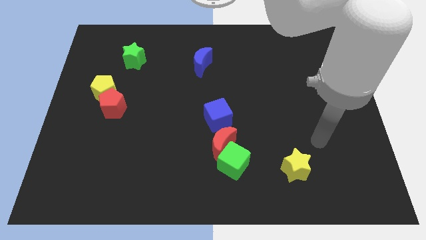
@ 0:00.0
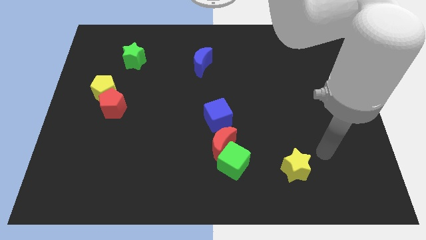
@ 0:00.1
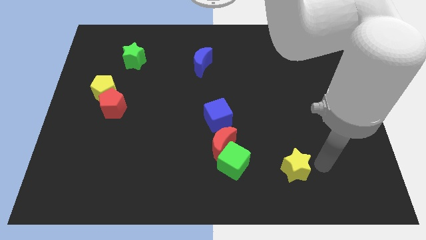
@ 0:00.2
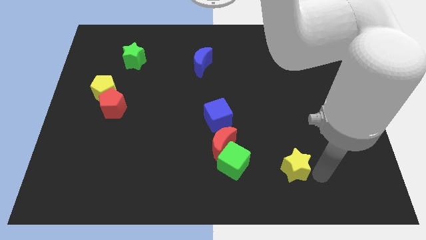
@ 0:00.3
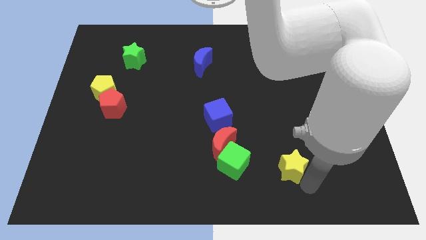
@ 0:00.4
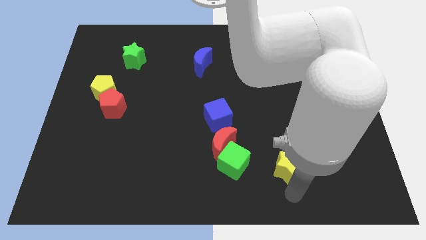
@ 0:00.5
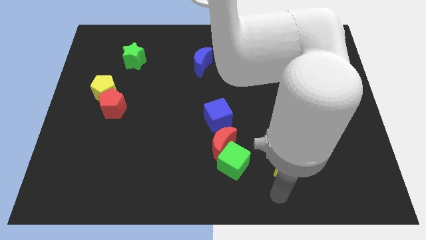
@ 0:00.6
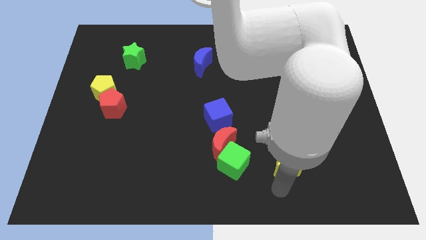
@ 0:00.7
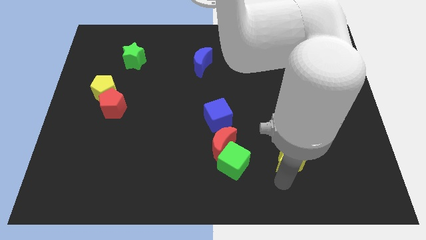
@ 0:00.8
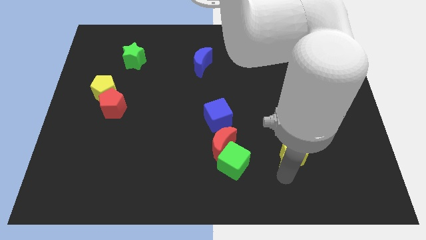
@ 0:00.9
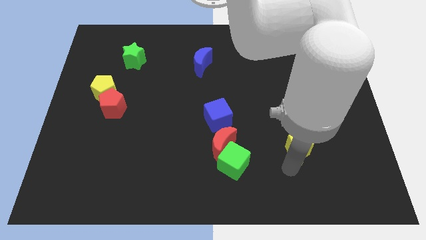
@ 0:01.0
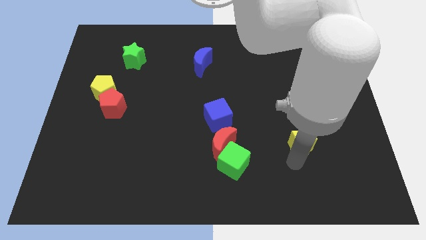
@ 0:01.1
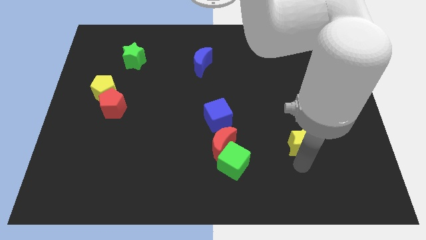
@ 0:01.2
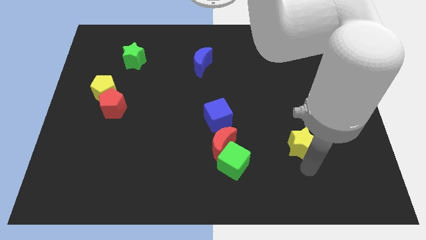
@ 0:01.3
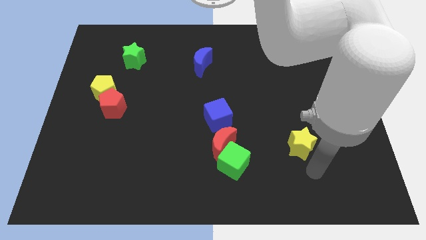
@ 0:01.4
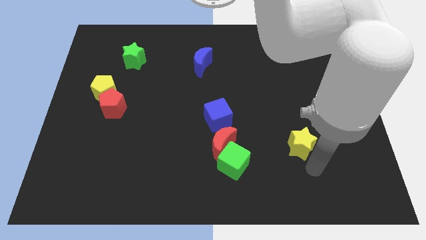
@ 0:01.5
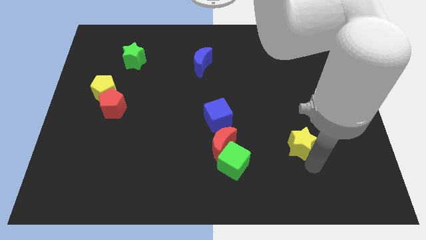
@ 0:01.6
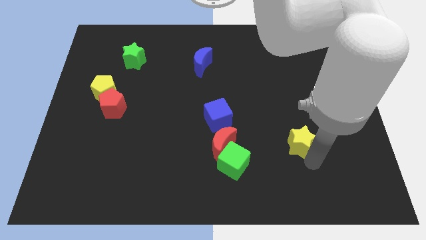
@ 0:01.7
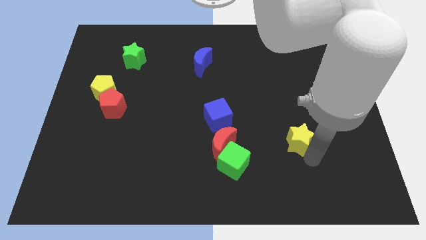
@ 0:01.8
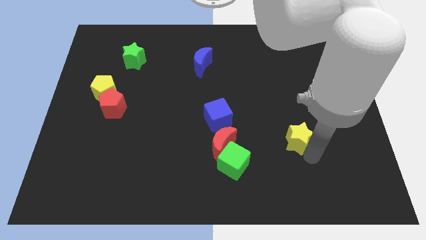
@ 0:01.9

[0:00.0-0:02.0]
slightly push the yellow star up

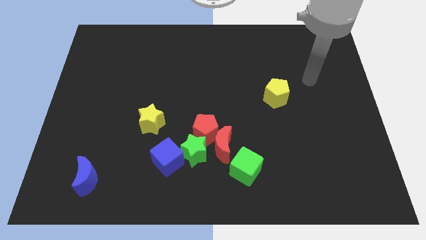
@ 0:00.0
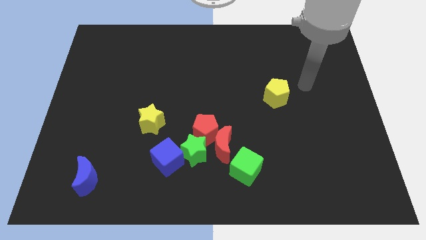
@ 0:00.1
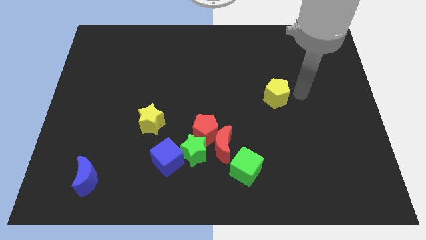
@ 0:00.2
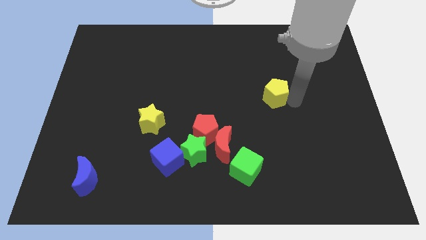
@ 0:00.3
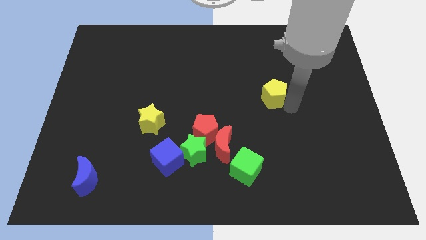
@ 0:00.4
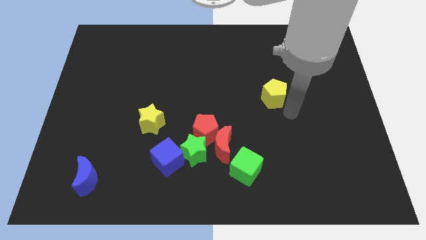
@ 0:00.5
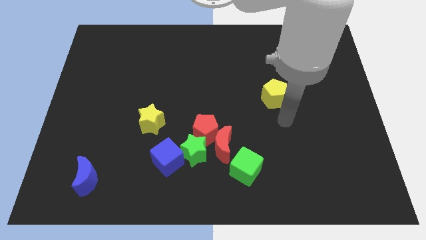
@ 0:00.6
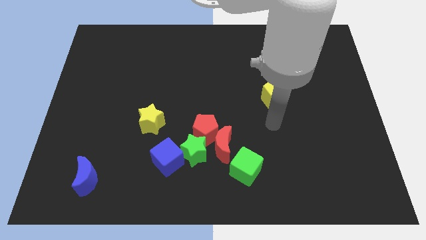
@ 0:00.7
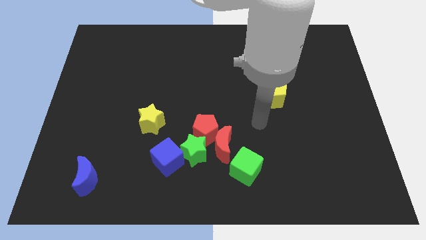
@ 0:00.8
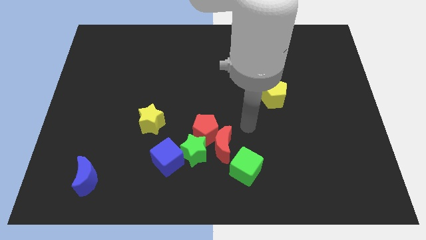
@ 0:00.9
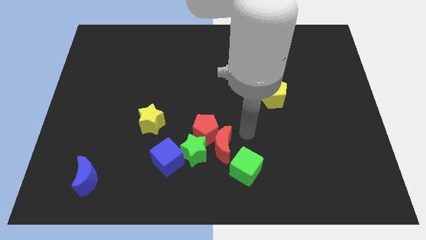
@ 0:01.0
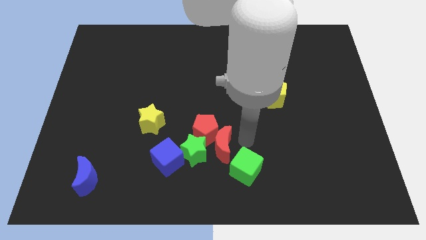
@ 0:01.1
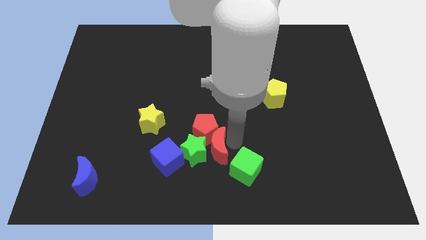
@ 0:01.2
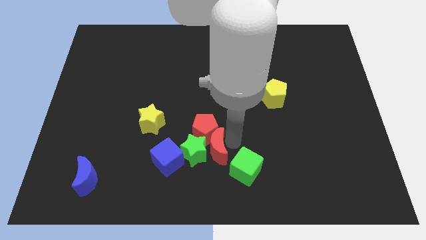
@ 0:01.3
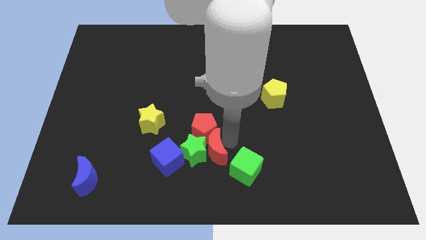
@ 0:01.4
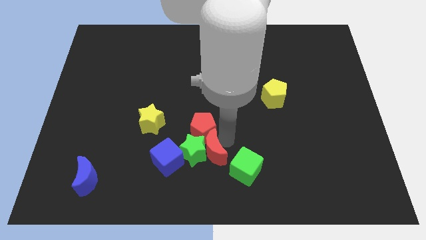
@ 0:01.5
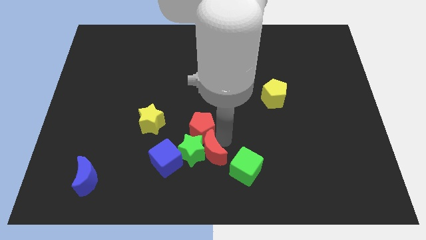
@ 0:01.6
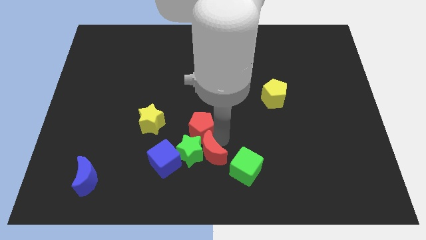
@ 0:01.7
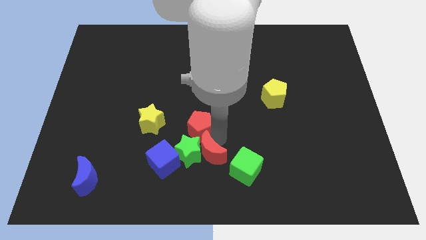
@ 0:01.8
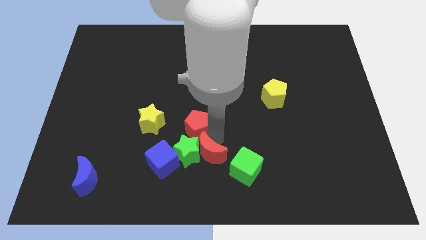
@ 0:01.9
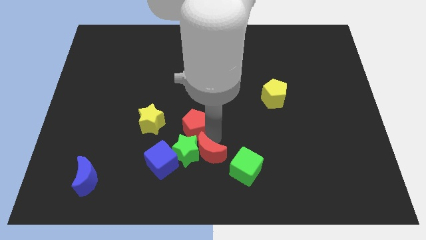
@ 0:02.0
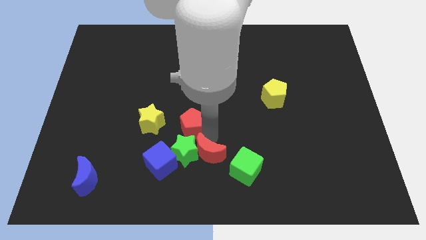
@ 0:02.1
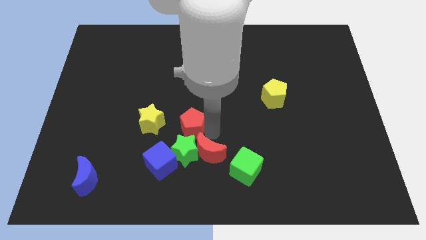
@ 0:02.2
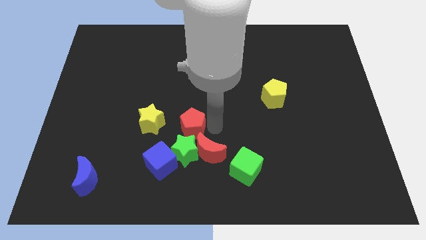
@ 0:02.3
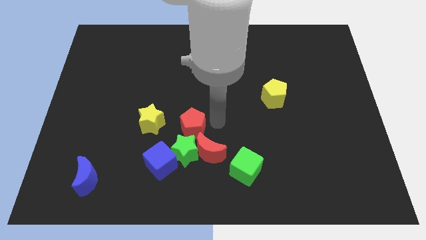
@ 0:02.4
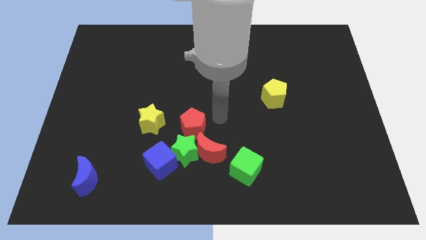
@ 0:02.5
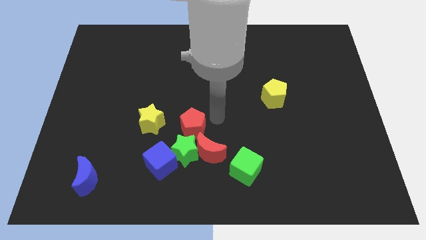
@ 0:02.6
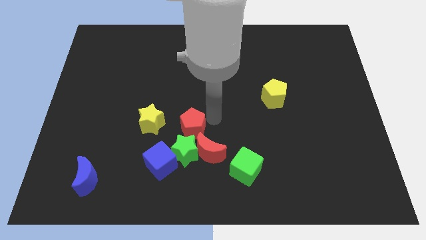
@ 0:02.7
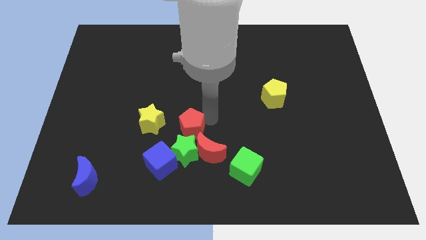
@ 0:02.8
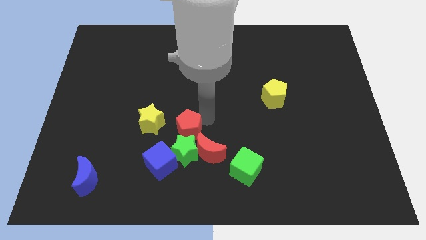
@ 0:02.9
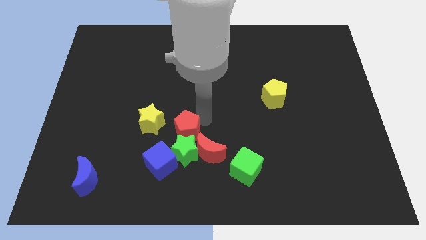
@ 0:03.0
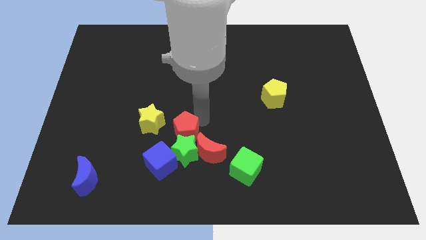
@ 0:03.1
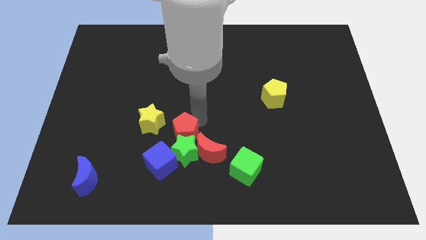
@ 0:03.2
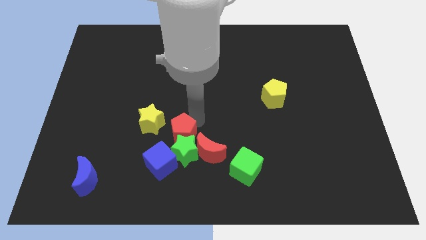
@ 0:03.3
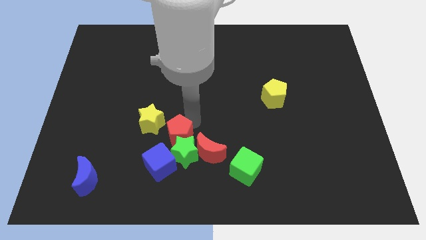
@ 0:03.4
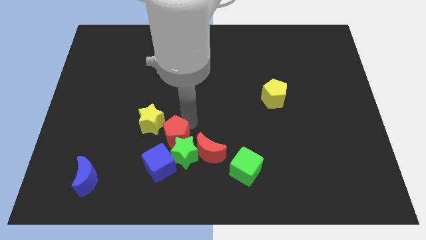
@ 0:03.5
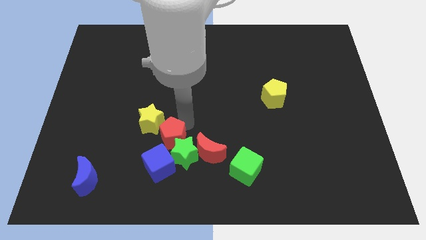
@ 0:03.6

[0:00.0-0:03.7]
slightly push the red pentagon to the left

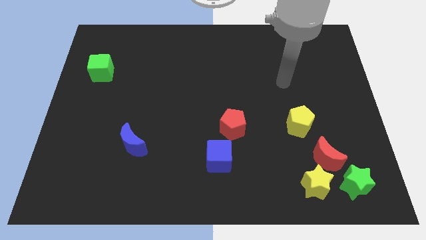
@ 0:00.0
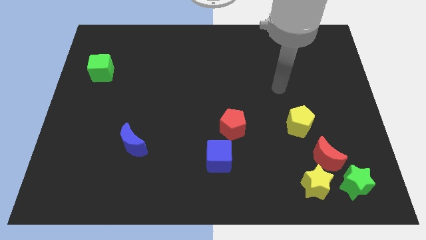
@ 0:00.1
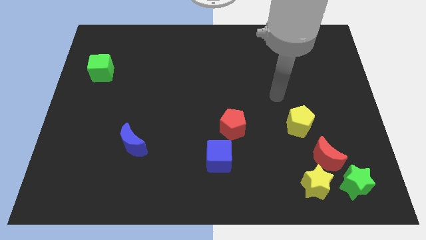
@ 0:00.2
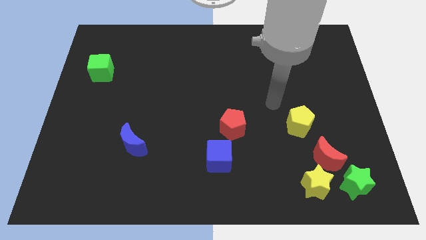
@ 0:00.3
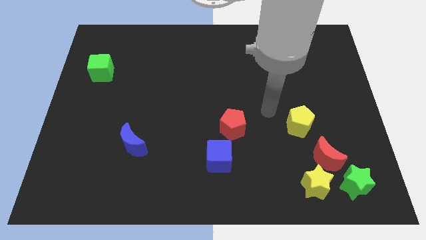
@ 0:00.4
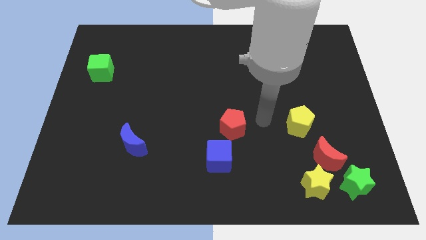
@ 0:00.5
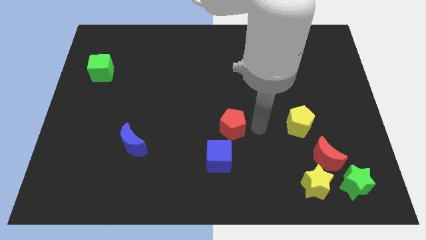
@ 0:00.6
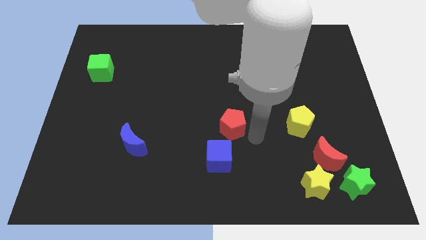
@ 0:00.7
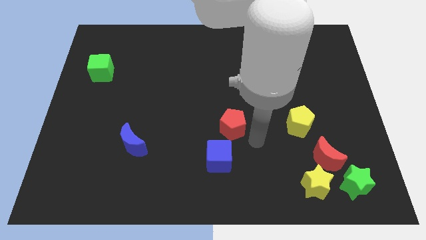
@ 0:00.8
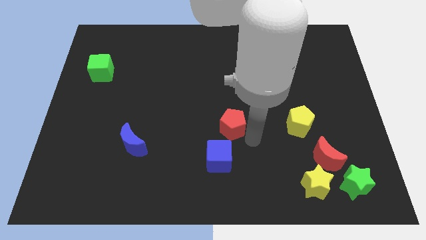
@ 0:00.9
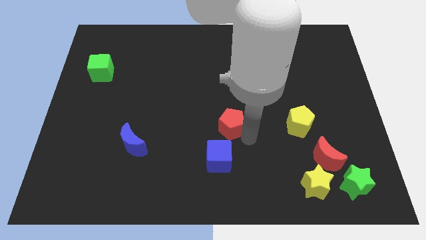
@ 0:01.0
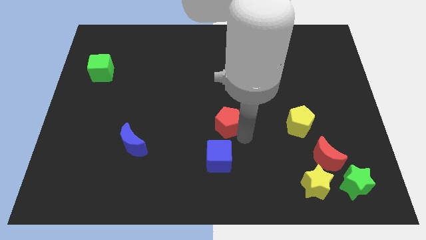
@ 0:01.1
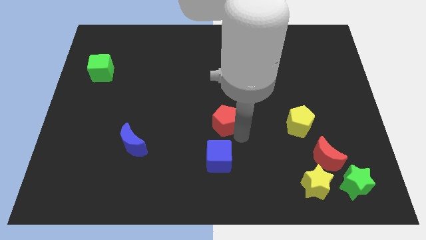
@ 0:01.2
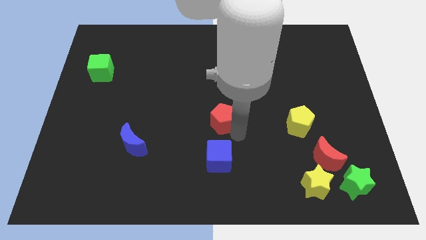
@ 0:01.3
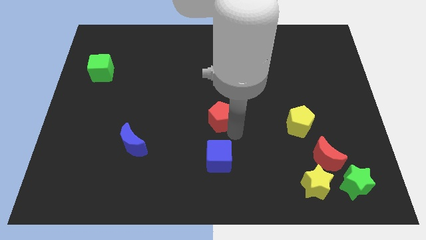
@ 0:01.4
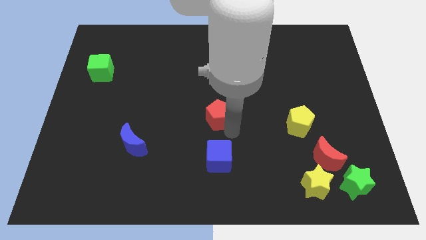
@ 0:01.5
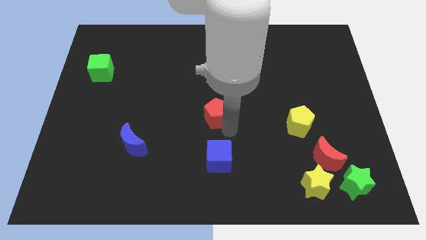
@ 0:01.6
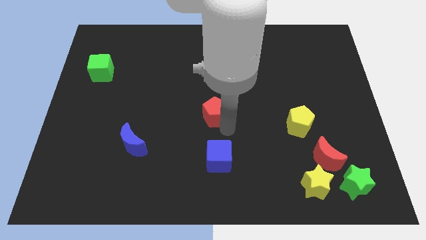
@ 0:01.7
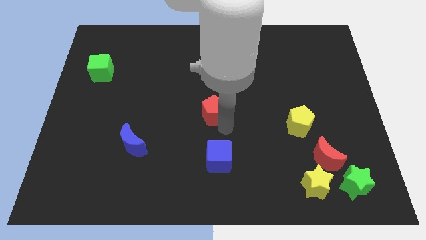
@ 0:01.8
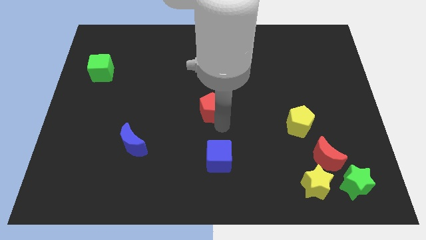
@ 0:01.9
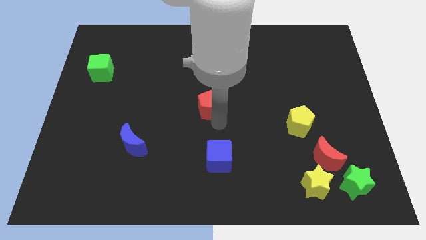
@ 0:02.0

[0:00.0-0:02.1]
slightly push the red pentagon upwards and left diagonally

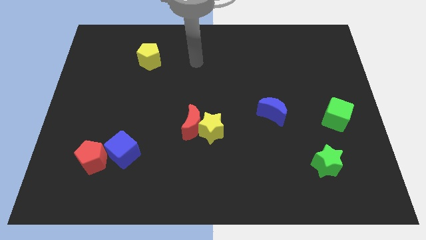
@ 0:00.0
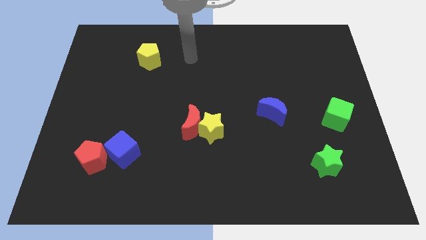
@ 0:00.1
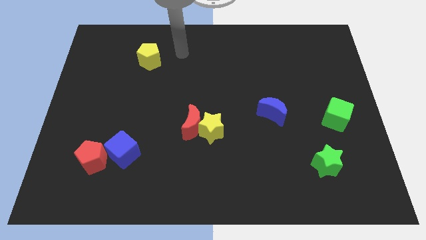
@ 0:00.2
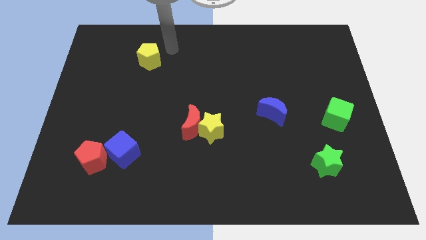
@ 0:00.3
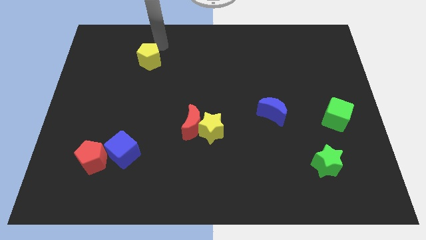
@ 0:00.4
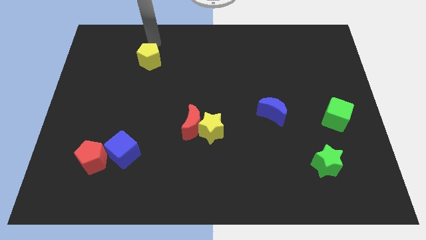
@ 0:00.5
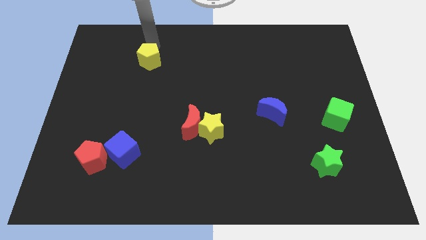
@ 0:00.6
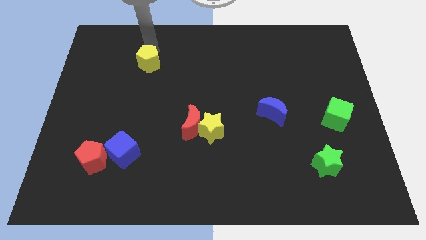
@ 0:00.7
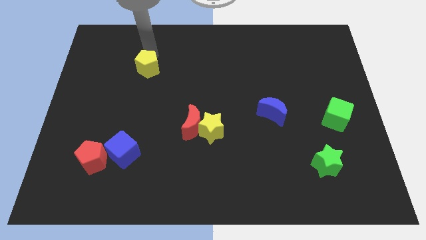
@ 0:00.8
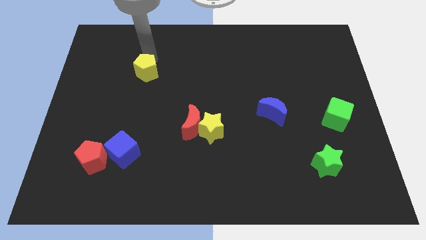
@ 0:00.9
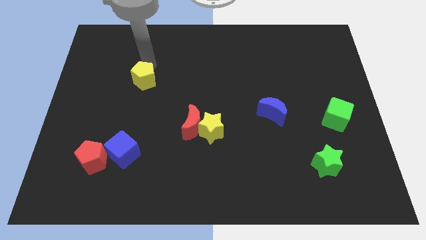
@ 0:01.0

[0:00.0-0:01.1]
slightly move the yellow pentagon downwards
